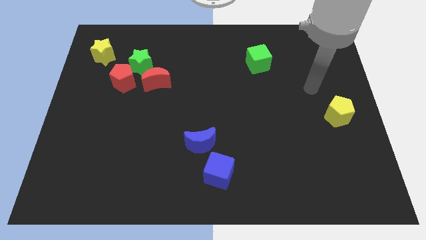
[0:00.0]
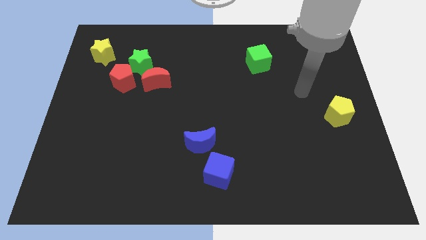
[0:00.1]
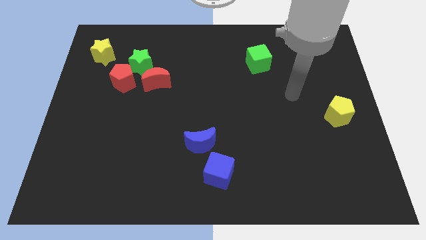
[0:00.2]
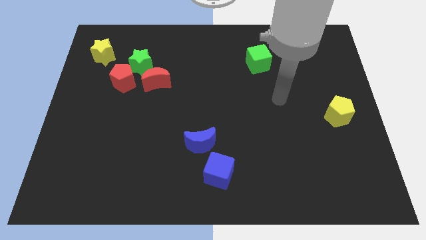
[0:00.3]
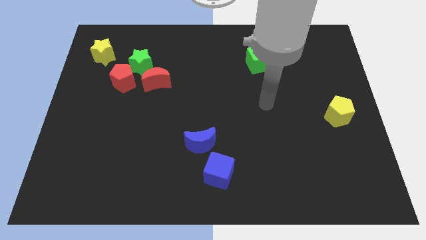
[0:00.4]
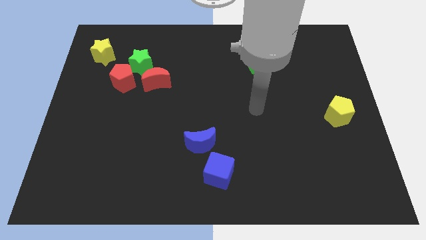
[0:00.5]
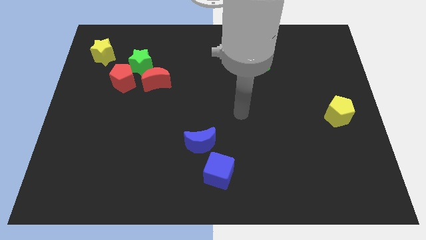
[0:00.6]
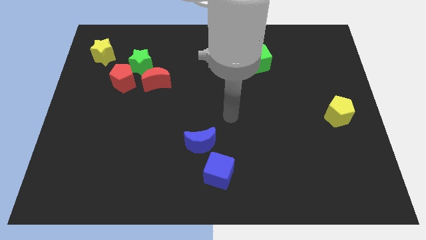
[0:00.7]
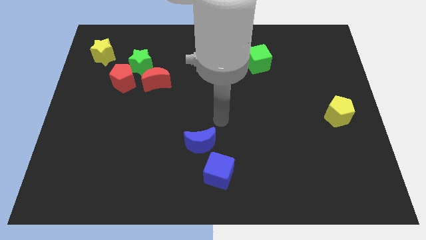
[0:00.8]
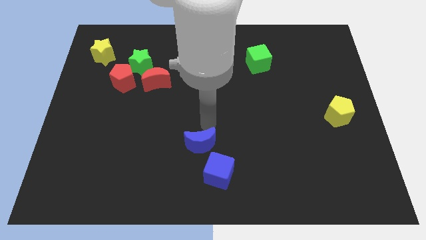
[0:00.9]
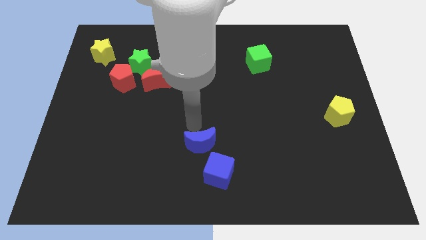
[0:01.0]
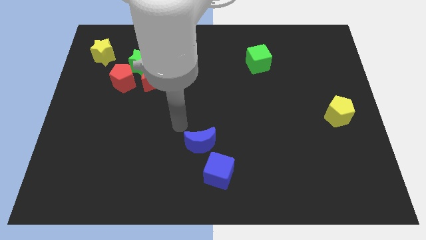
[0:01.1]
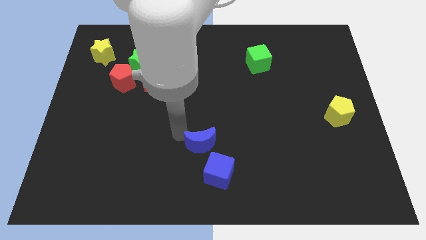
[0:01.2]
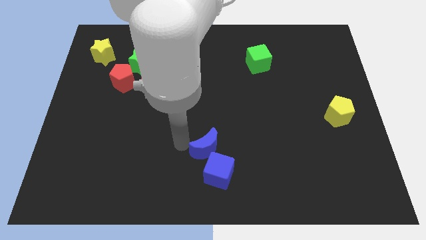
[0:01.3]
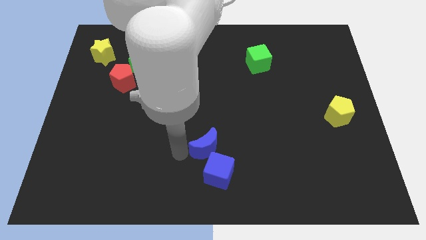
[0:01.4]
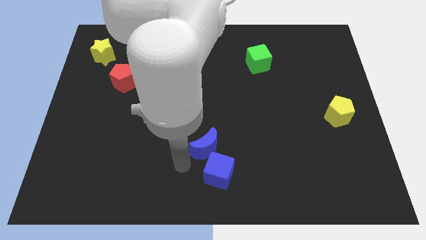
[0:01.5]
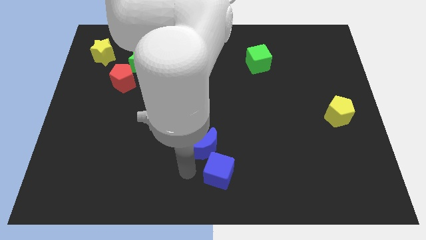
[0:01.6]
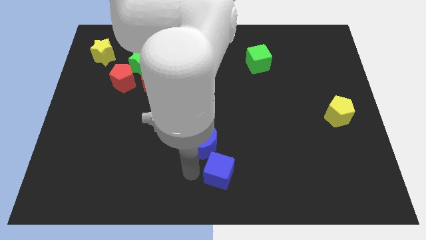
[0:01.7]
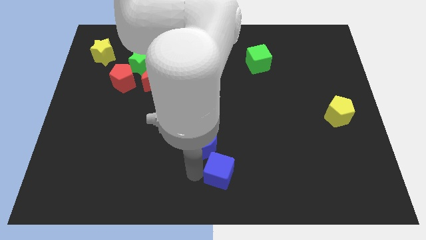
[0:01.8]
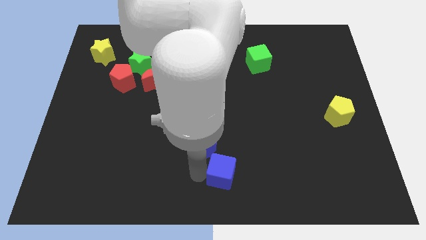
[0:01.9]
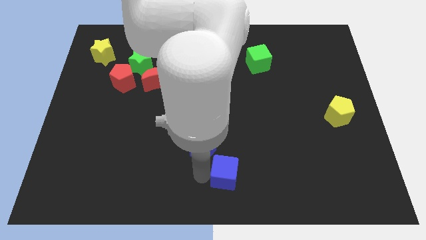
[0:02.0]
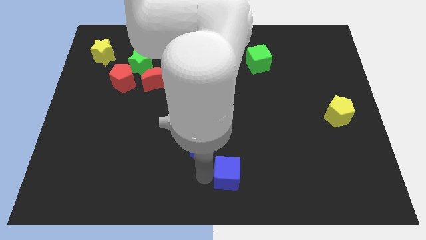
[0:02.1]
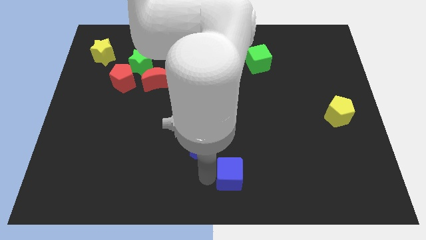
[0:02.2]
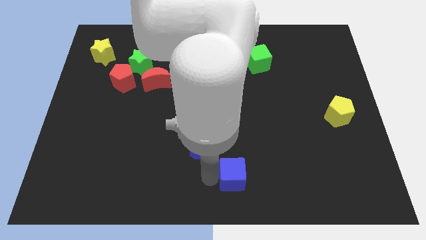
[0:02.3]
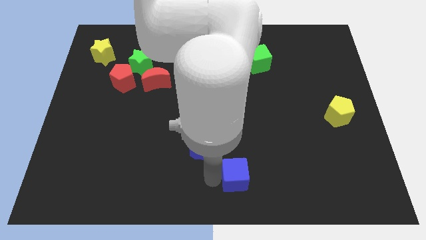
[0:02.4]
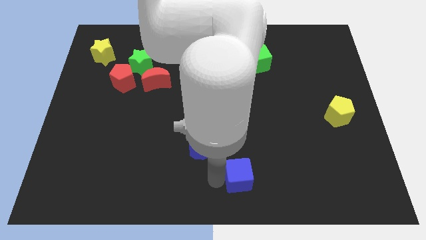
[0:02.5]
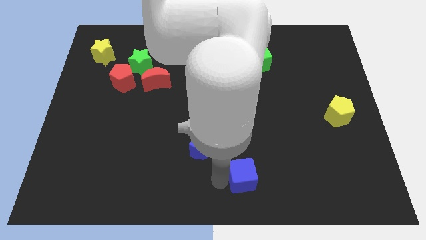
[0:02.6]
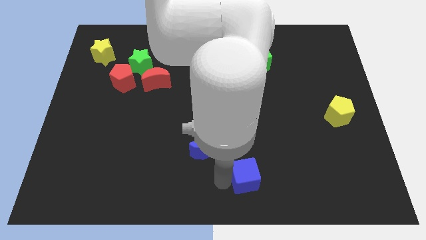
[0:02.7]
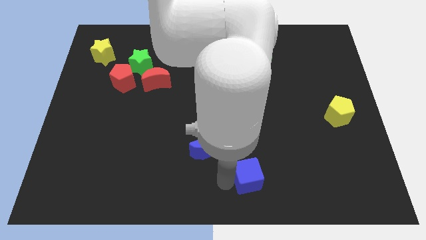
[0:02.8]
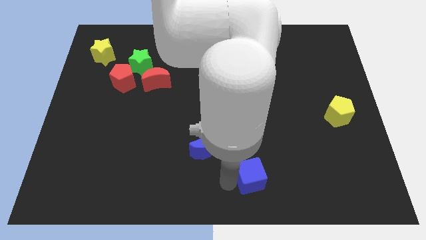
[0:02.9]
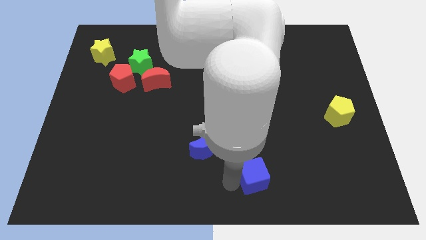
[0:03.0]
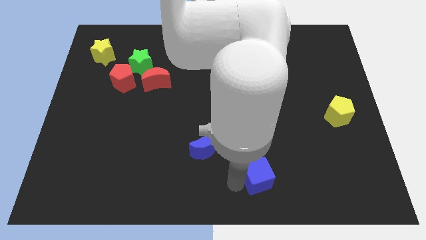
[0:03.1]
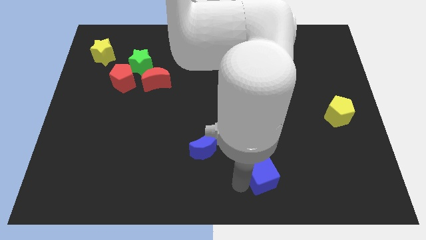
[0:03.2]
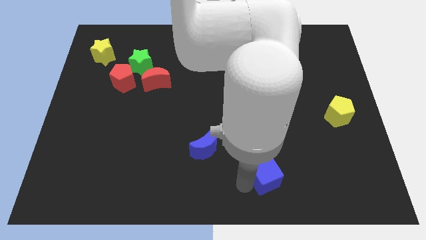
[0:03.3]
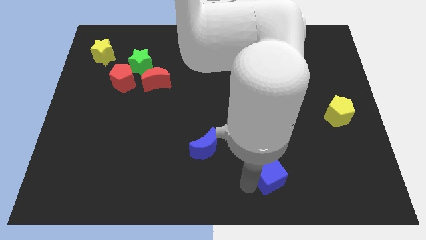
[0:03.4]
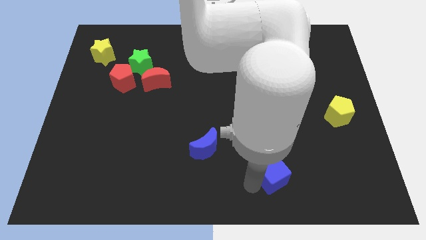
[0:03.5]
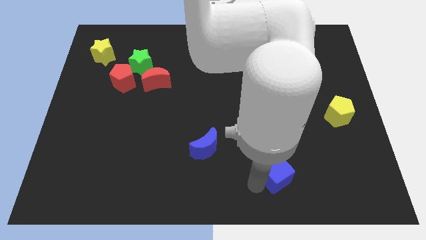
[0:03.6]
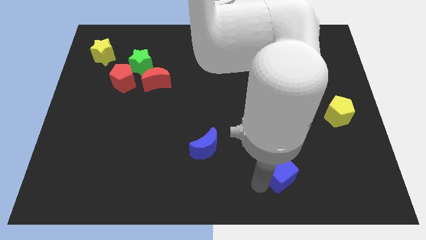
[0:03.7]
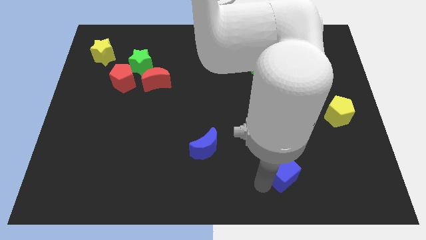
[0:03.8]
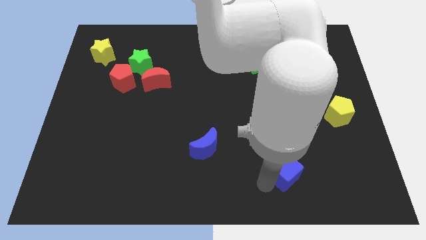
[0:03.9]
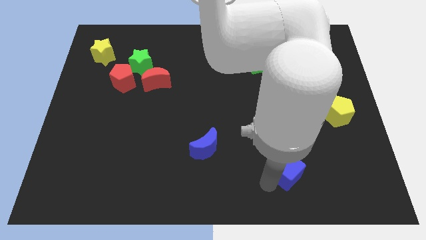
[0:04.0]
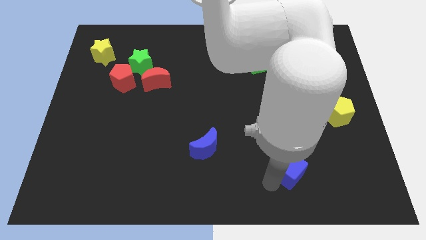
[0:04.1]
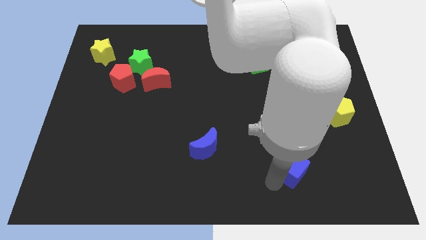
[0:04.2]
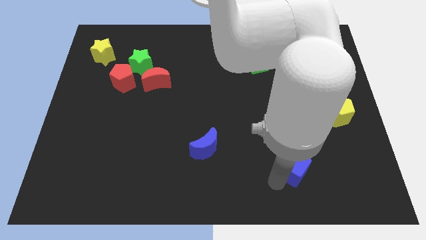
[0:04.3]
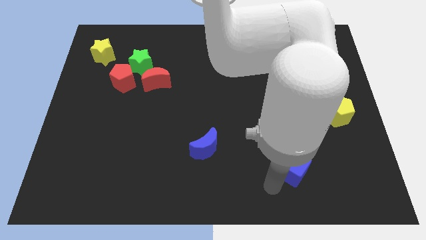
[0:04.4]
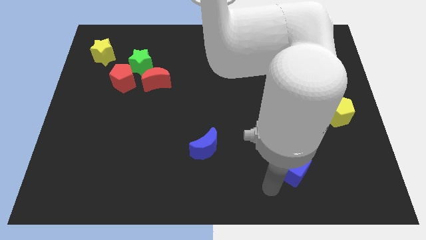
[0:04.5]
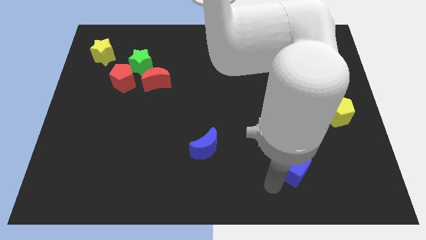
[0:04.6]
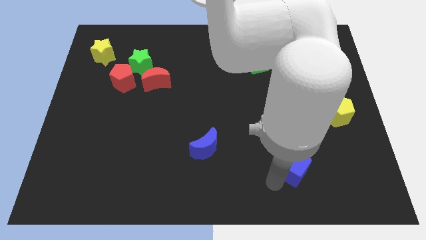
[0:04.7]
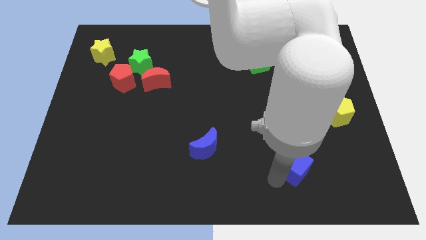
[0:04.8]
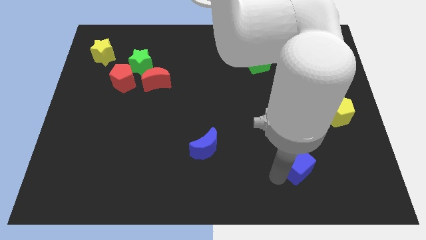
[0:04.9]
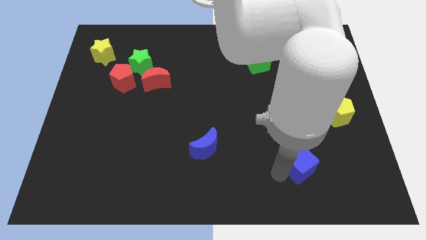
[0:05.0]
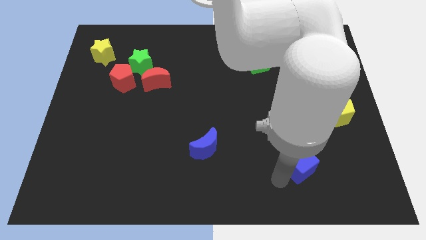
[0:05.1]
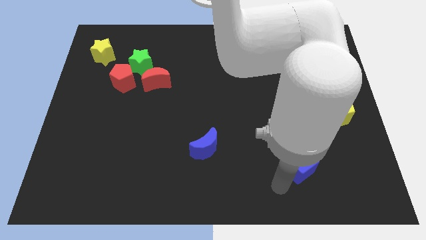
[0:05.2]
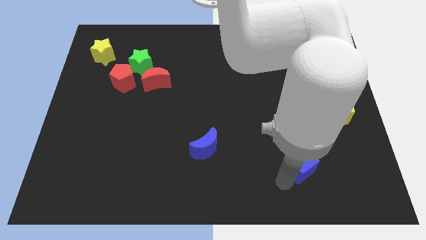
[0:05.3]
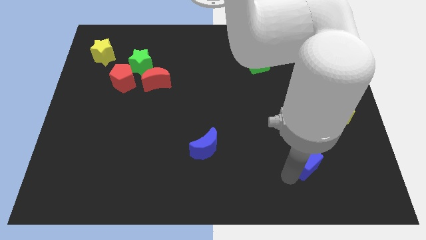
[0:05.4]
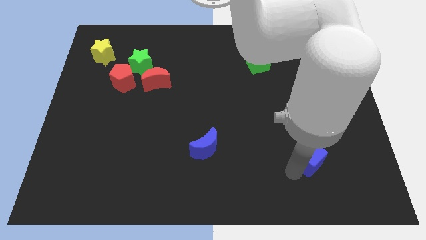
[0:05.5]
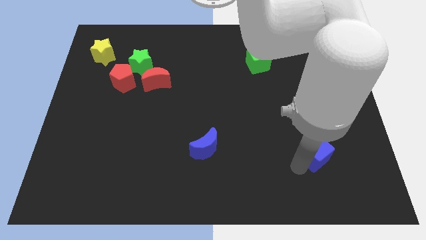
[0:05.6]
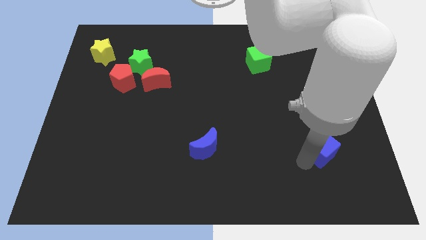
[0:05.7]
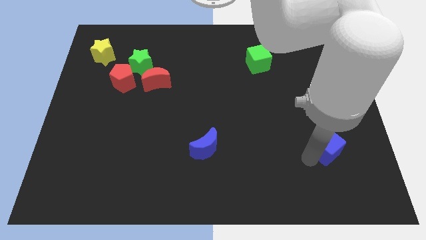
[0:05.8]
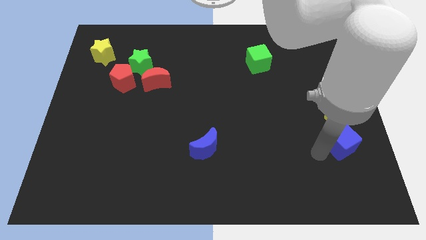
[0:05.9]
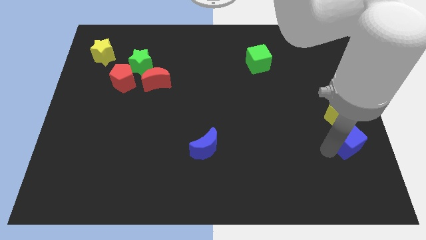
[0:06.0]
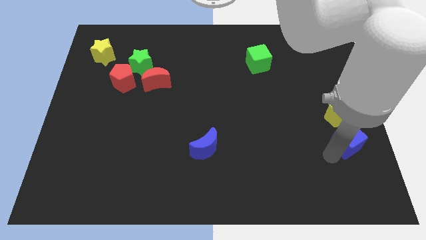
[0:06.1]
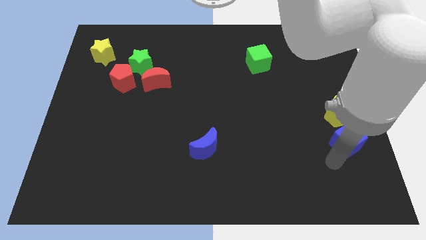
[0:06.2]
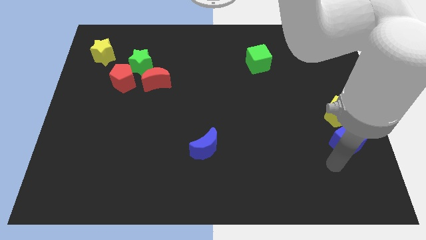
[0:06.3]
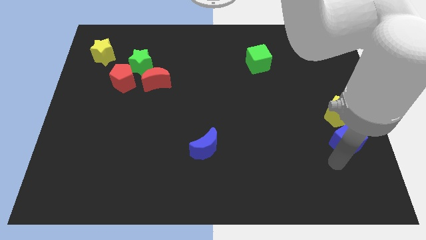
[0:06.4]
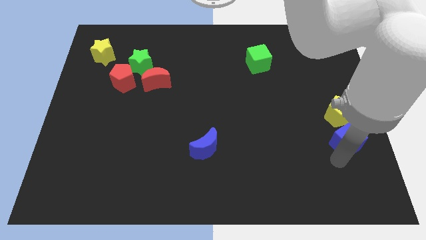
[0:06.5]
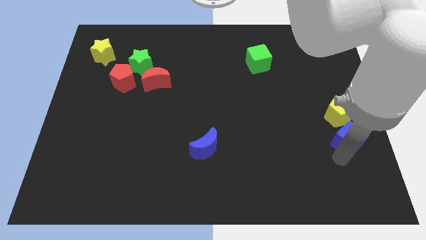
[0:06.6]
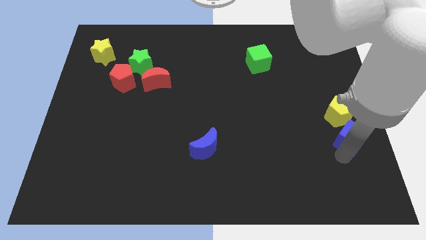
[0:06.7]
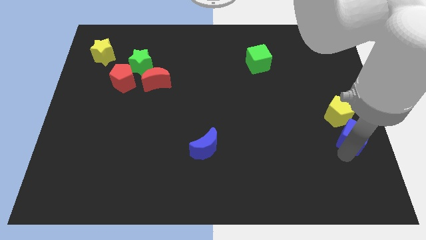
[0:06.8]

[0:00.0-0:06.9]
put the blue cube to the right side

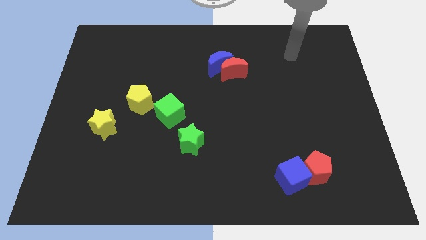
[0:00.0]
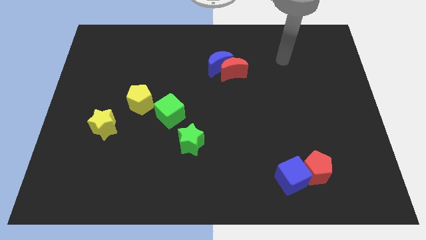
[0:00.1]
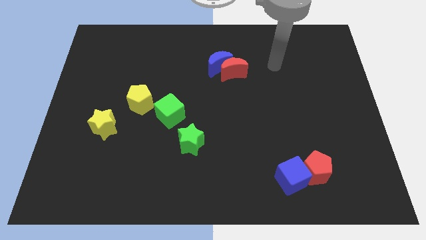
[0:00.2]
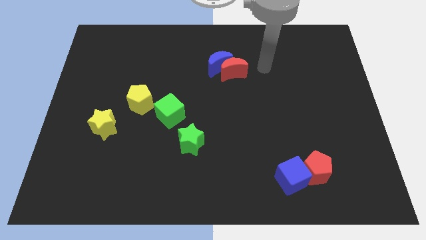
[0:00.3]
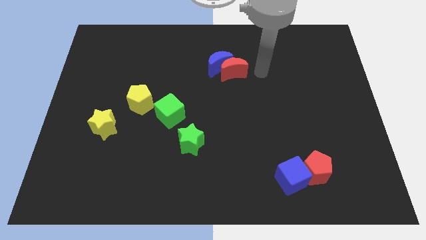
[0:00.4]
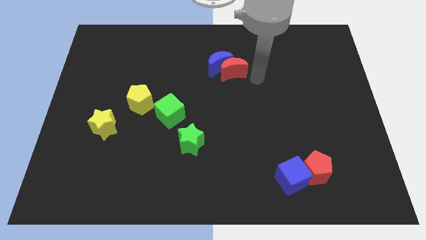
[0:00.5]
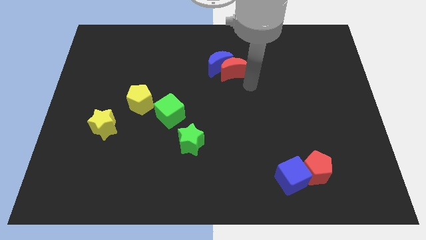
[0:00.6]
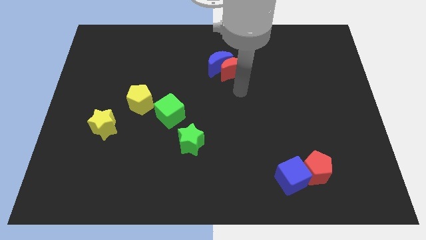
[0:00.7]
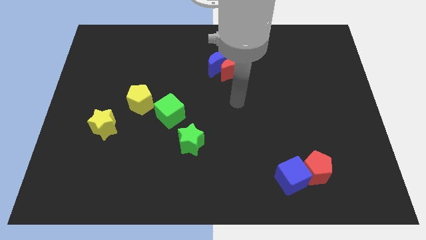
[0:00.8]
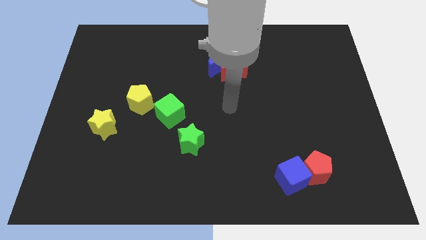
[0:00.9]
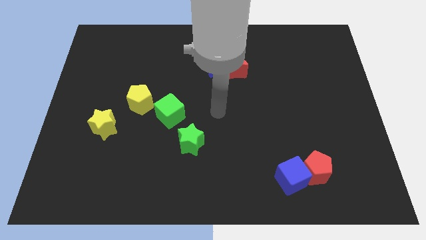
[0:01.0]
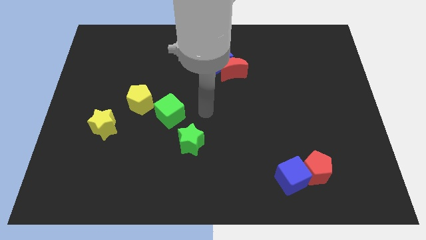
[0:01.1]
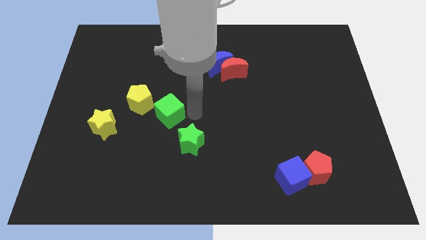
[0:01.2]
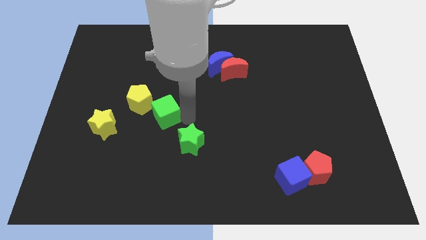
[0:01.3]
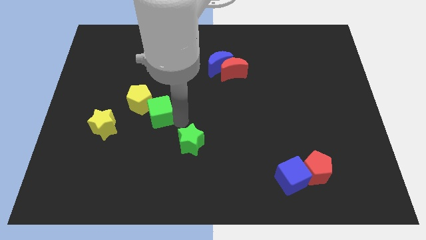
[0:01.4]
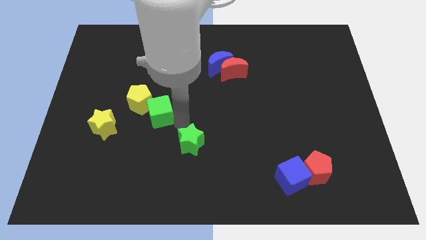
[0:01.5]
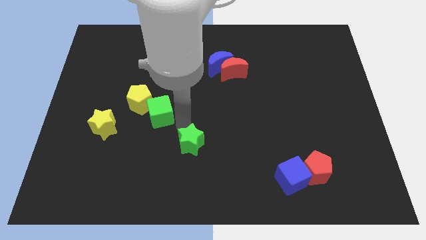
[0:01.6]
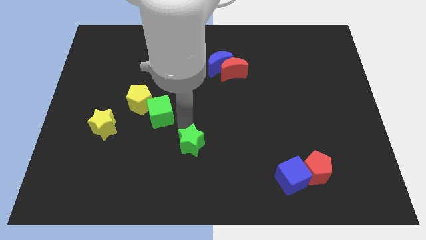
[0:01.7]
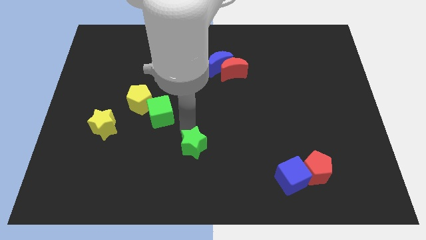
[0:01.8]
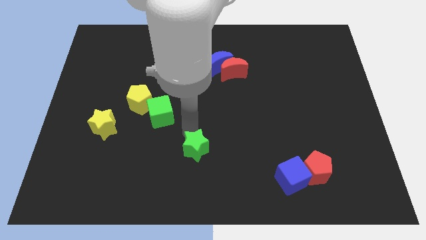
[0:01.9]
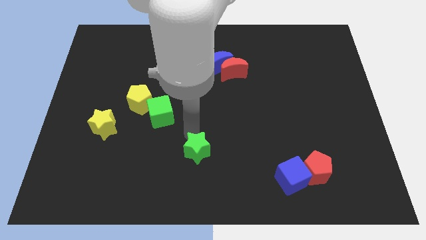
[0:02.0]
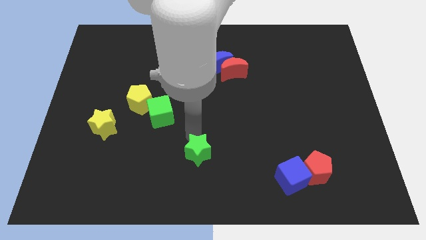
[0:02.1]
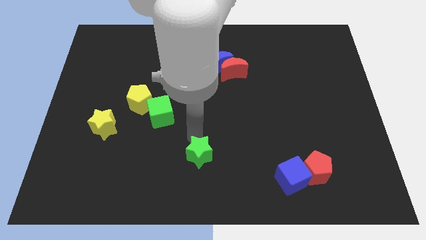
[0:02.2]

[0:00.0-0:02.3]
slide the green star to the bottom side
